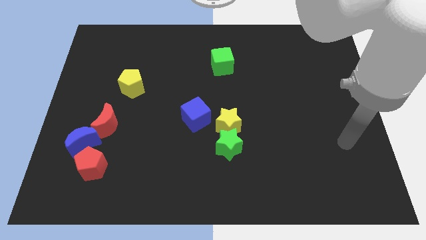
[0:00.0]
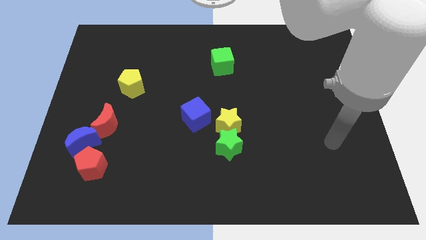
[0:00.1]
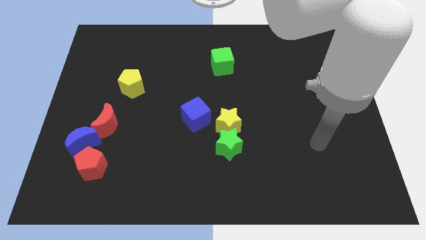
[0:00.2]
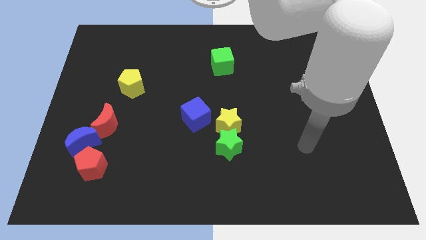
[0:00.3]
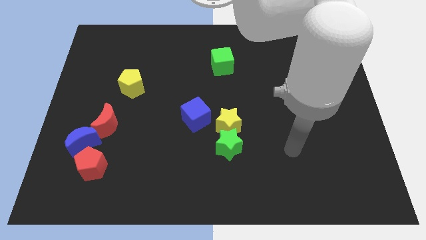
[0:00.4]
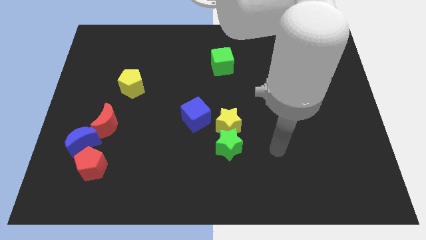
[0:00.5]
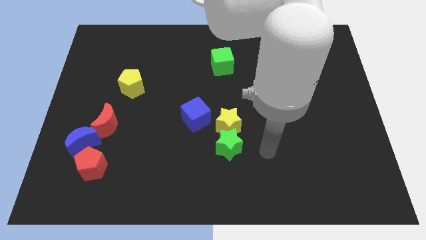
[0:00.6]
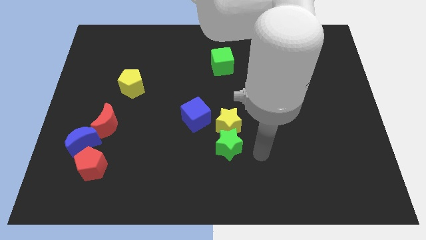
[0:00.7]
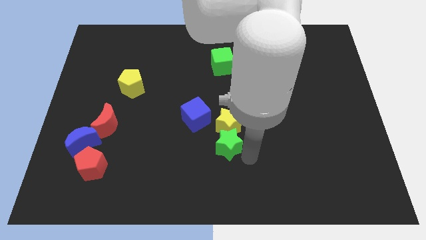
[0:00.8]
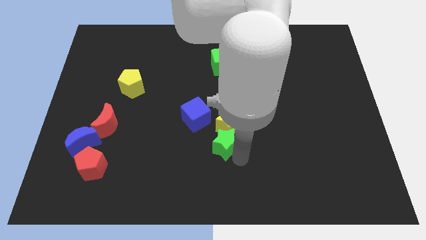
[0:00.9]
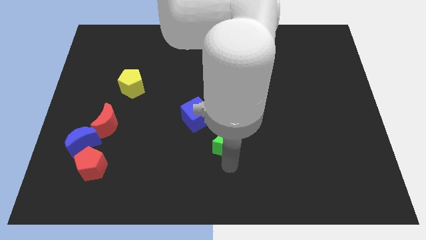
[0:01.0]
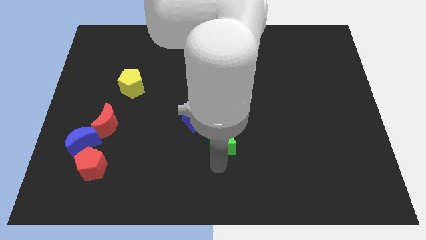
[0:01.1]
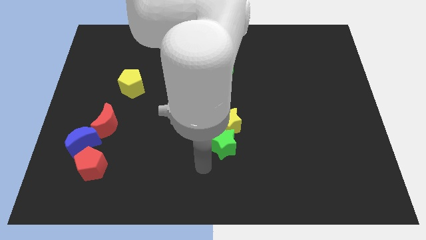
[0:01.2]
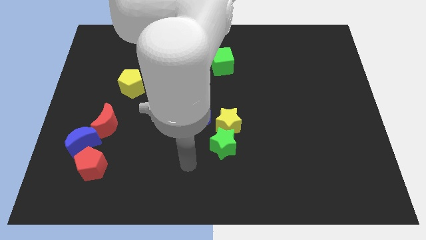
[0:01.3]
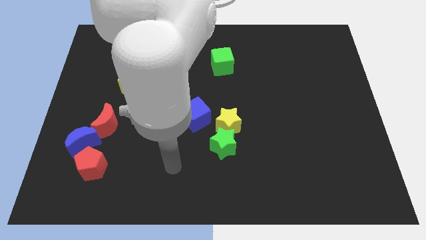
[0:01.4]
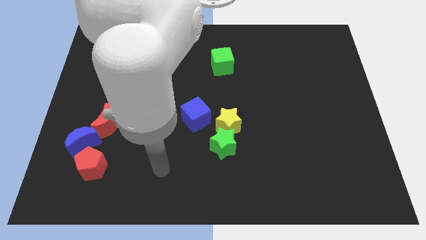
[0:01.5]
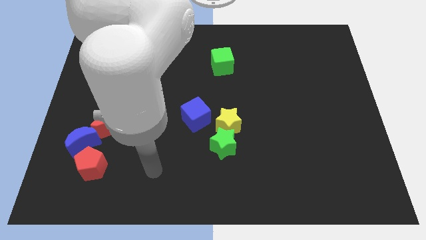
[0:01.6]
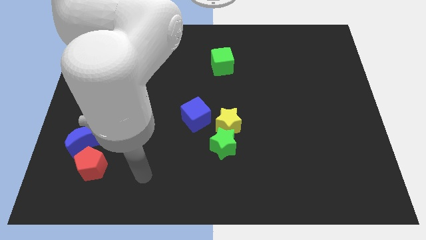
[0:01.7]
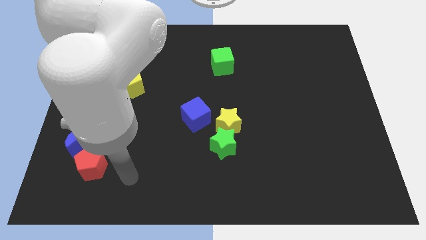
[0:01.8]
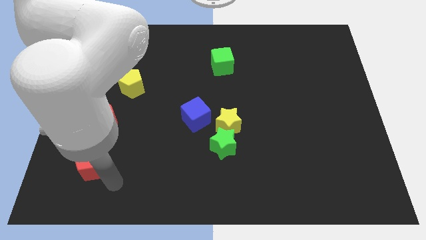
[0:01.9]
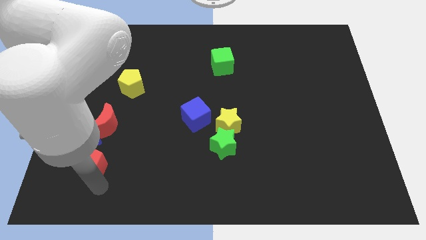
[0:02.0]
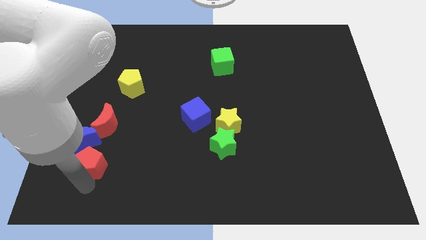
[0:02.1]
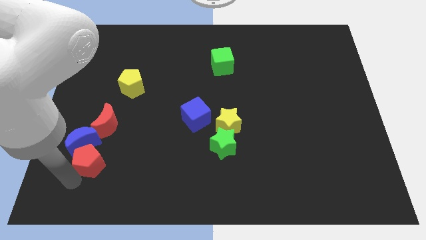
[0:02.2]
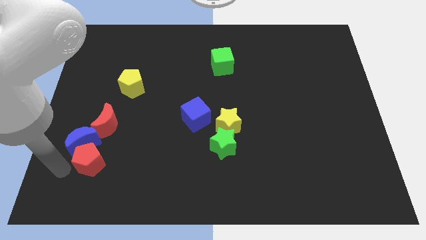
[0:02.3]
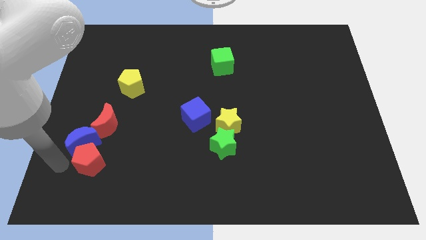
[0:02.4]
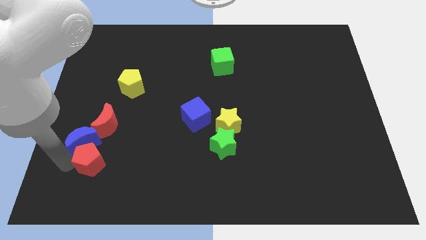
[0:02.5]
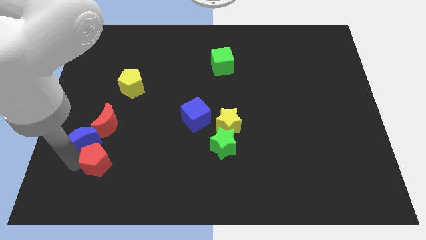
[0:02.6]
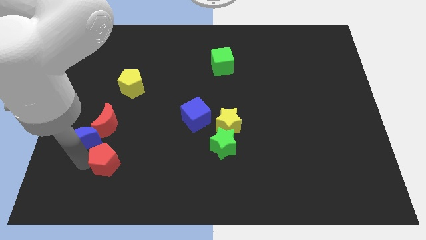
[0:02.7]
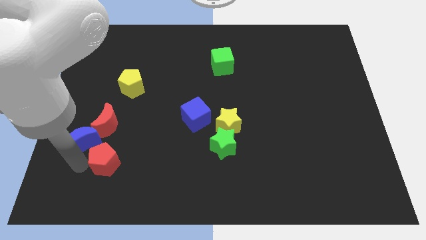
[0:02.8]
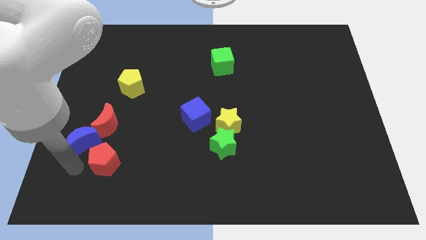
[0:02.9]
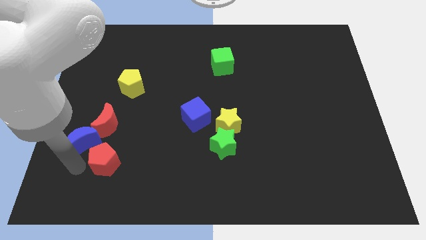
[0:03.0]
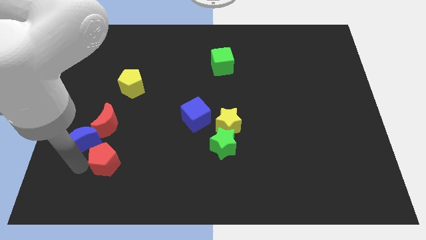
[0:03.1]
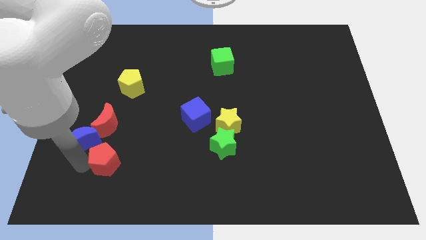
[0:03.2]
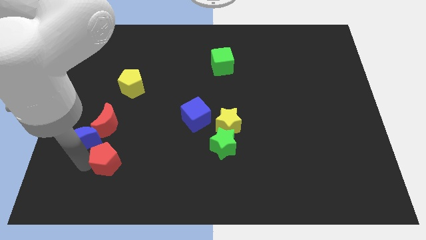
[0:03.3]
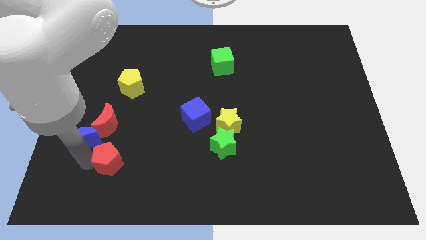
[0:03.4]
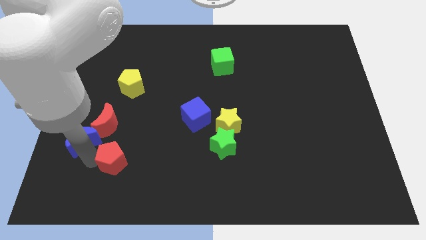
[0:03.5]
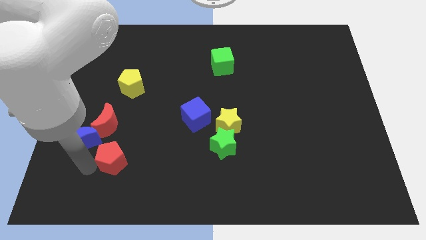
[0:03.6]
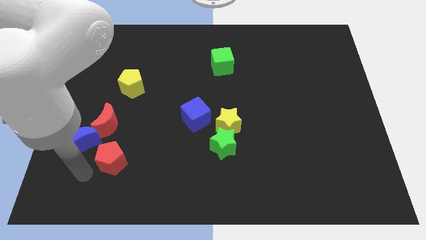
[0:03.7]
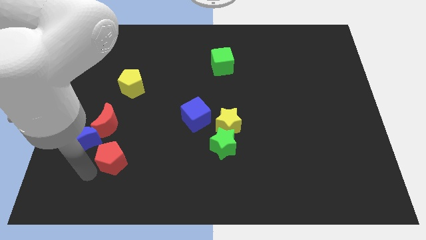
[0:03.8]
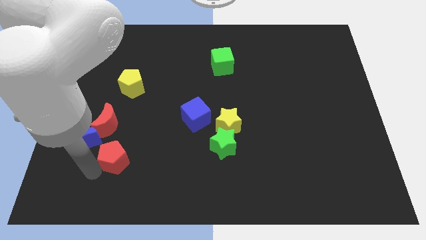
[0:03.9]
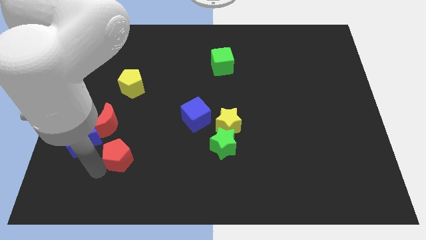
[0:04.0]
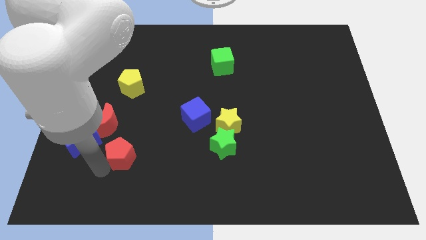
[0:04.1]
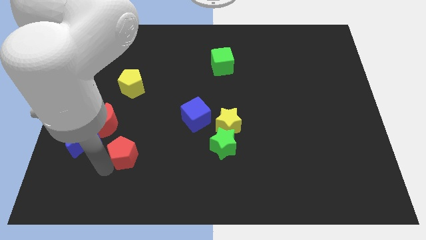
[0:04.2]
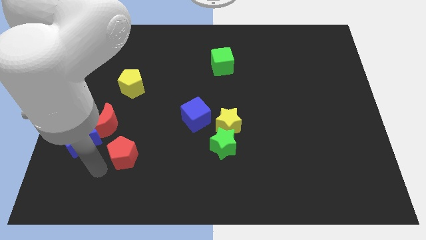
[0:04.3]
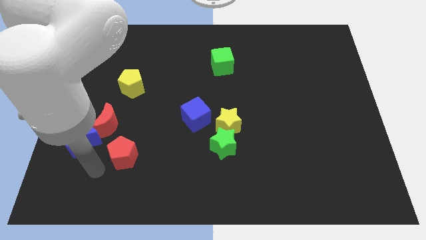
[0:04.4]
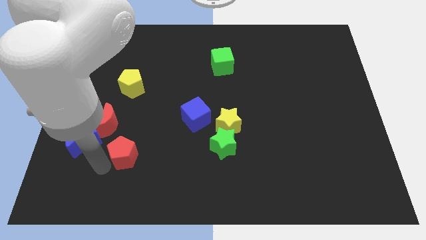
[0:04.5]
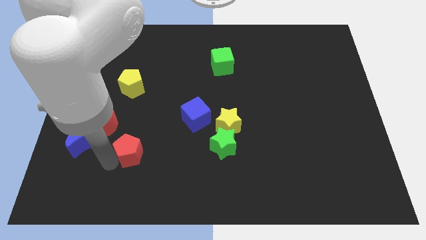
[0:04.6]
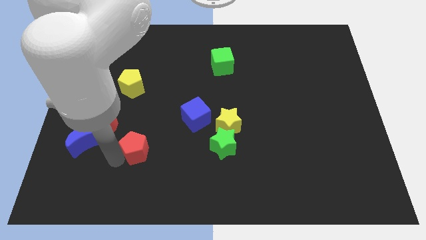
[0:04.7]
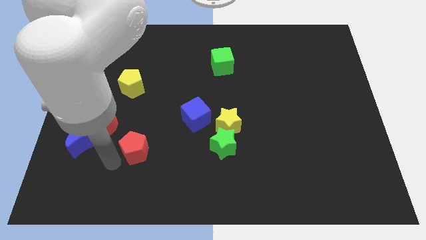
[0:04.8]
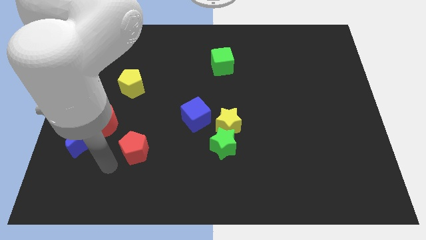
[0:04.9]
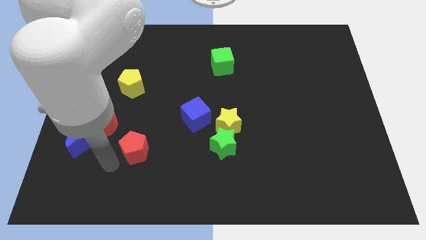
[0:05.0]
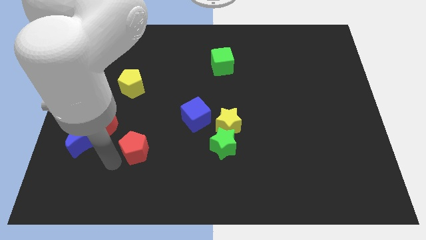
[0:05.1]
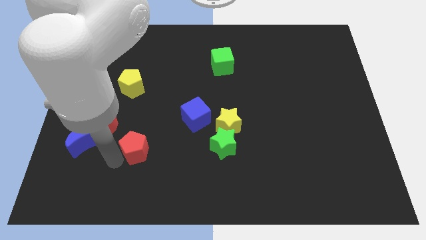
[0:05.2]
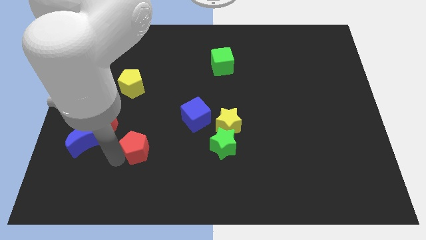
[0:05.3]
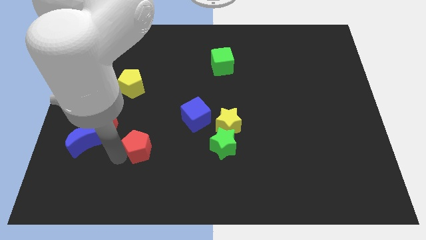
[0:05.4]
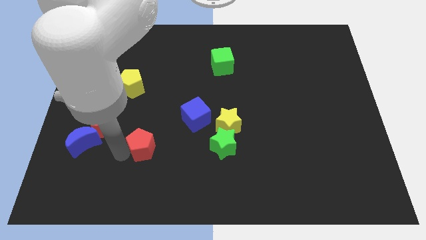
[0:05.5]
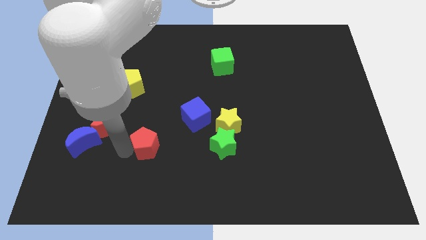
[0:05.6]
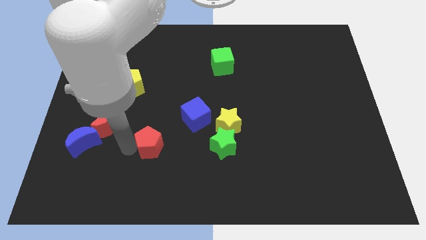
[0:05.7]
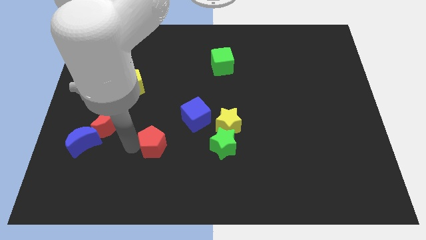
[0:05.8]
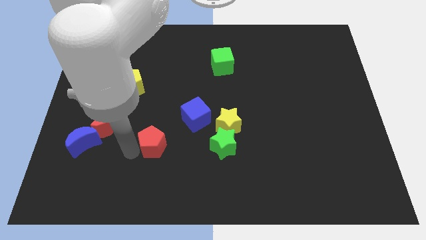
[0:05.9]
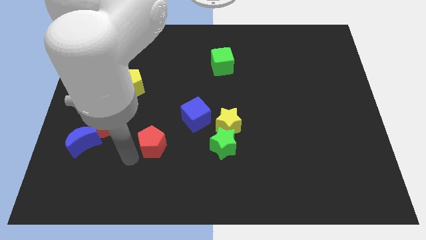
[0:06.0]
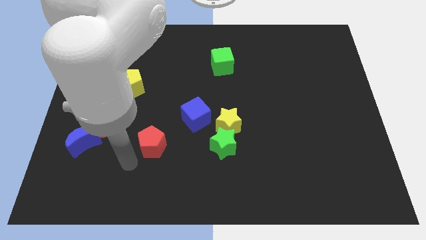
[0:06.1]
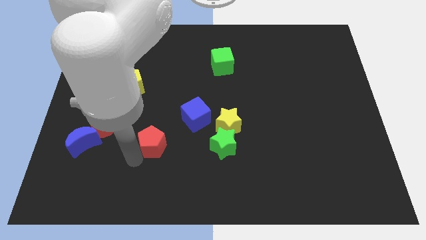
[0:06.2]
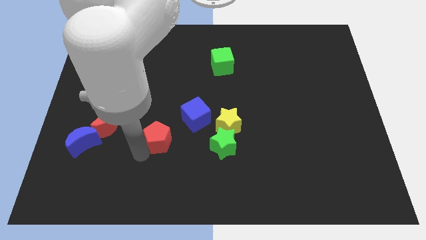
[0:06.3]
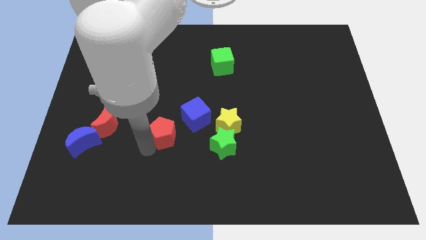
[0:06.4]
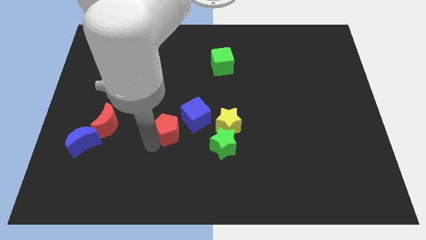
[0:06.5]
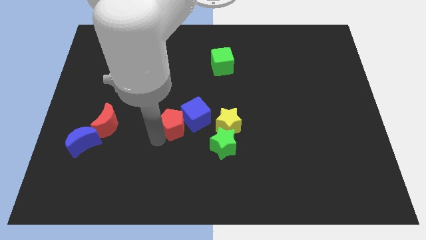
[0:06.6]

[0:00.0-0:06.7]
slide the red pentagon close to the blue cube
